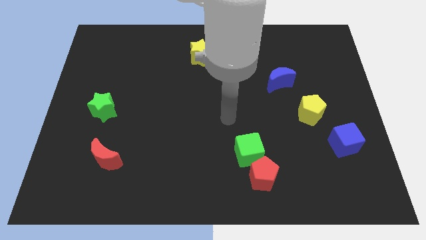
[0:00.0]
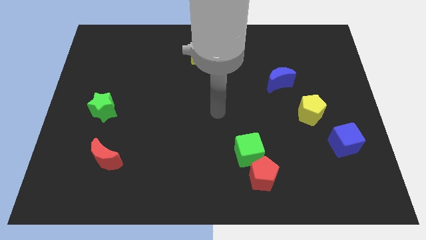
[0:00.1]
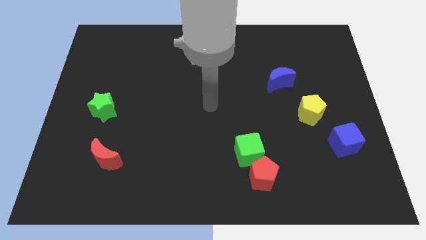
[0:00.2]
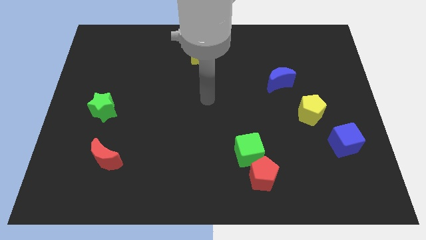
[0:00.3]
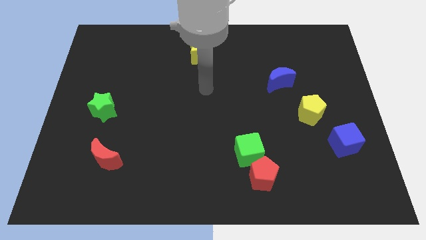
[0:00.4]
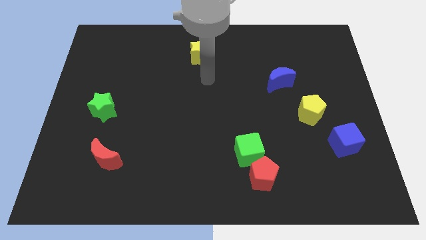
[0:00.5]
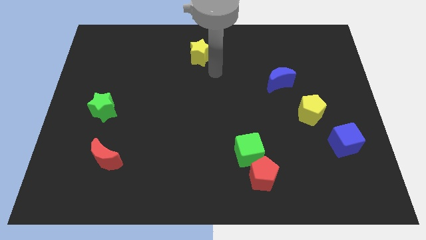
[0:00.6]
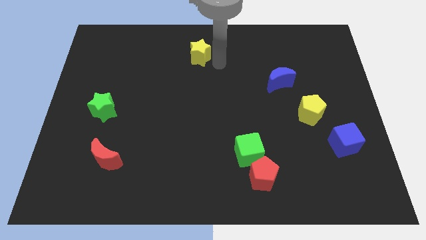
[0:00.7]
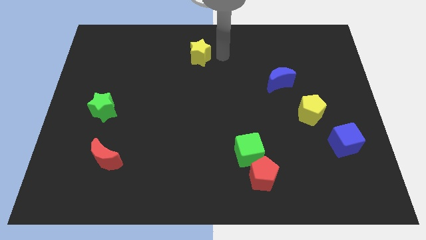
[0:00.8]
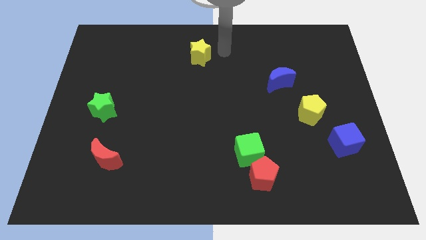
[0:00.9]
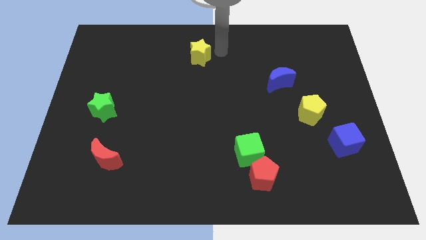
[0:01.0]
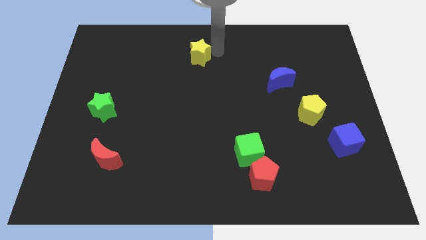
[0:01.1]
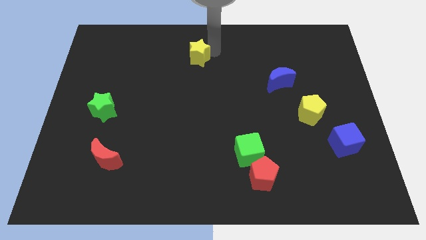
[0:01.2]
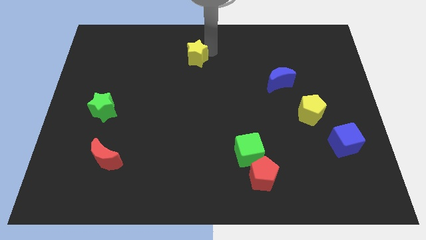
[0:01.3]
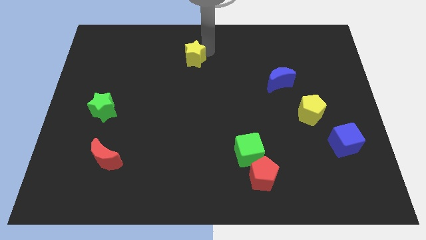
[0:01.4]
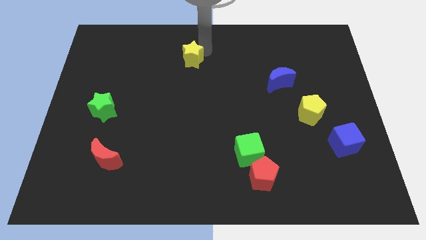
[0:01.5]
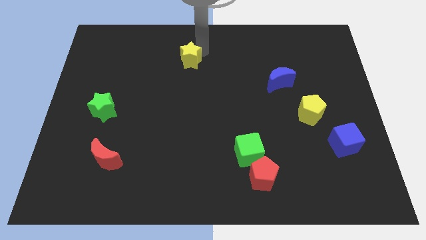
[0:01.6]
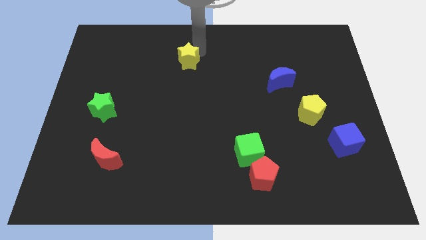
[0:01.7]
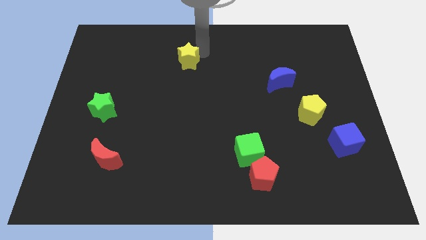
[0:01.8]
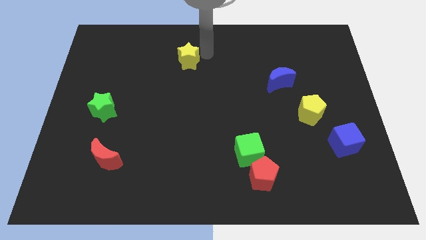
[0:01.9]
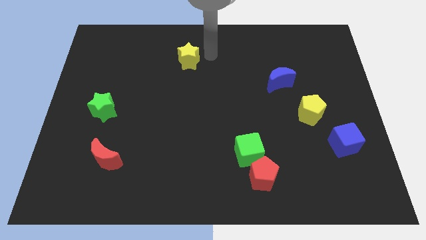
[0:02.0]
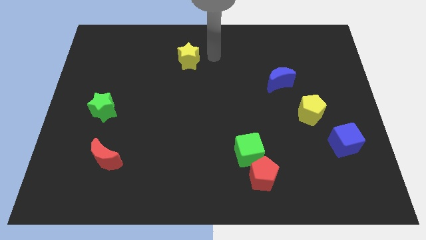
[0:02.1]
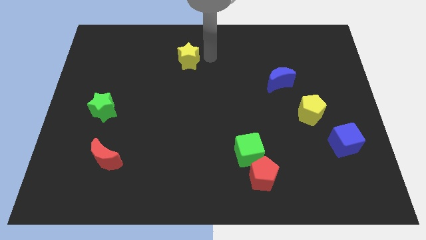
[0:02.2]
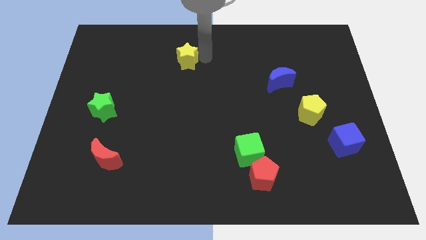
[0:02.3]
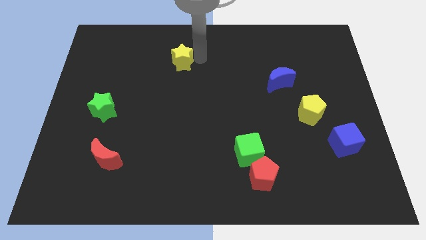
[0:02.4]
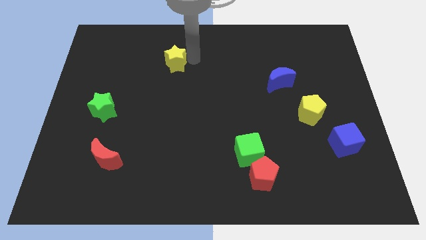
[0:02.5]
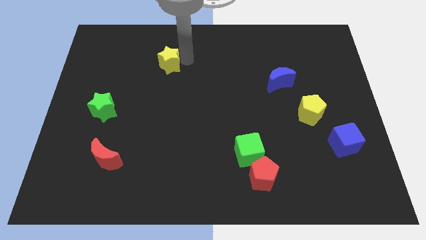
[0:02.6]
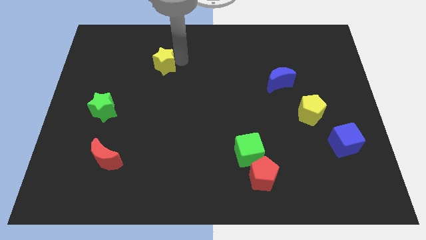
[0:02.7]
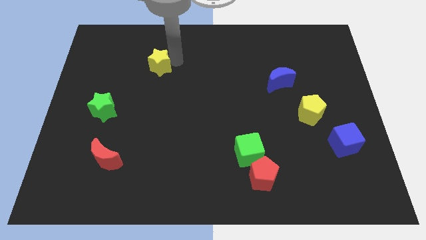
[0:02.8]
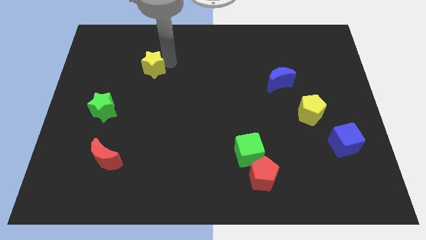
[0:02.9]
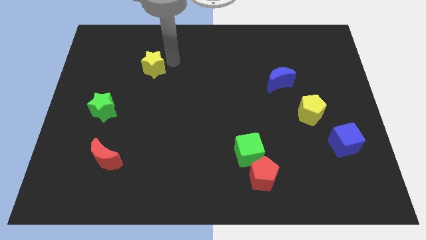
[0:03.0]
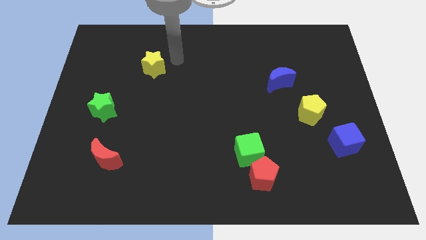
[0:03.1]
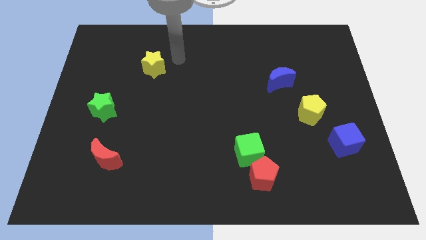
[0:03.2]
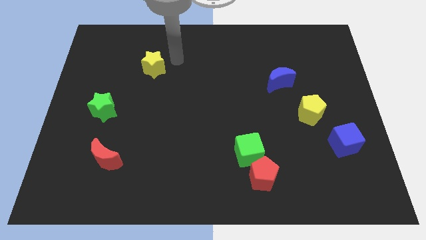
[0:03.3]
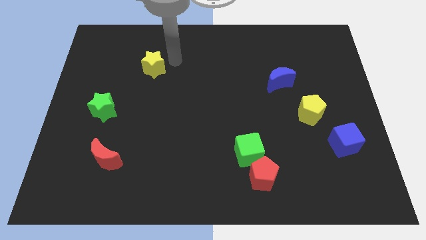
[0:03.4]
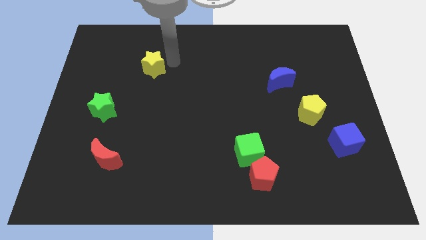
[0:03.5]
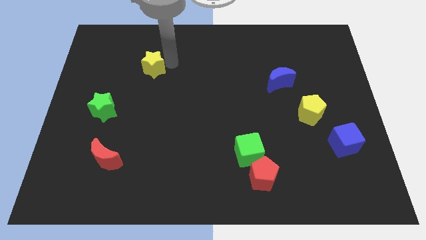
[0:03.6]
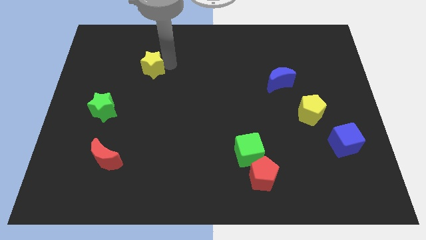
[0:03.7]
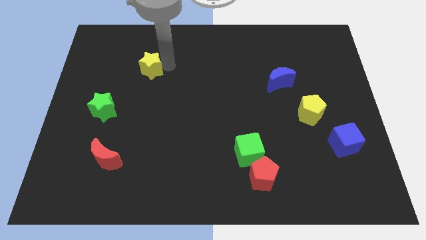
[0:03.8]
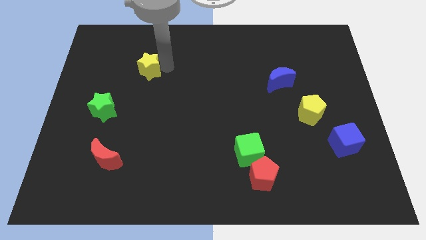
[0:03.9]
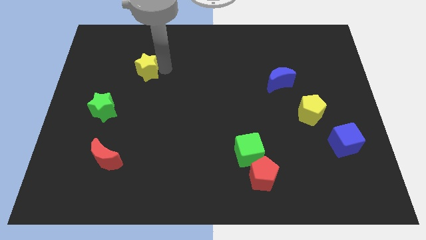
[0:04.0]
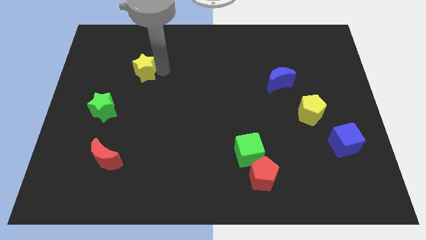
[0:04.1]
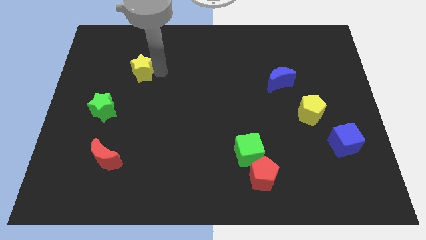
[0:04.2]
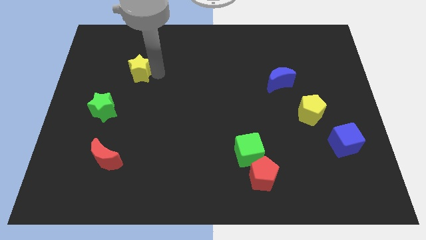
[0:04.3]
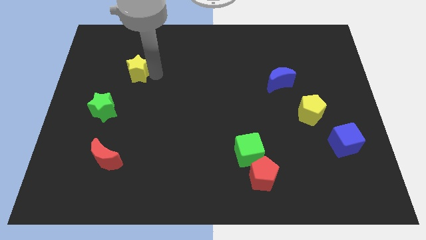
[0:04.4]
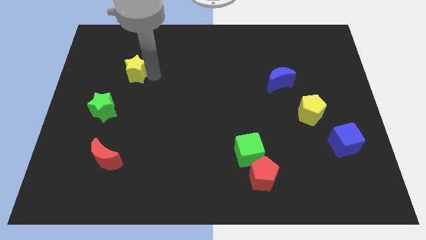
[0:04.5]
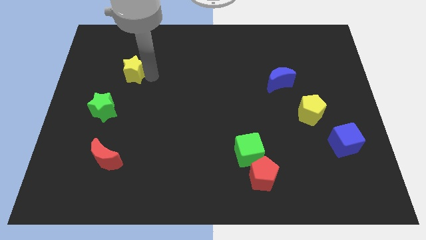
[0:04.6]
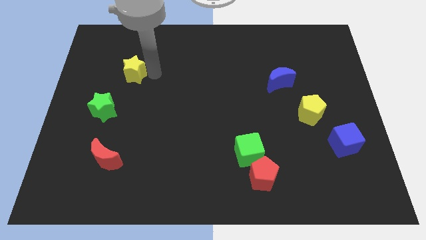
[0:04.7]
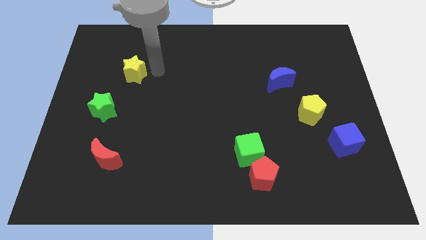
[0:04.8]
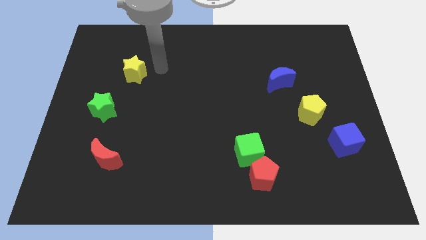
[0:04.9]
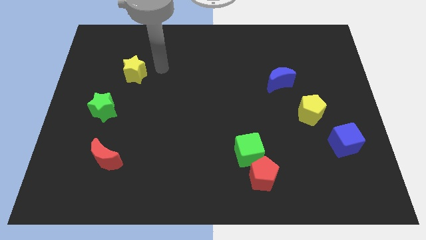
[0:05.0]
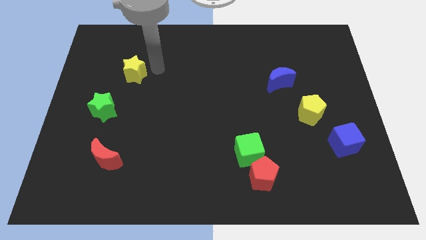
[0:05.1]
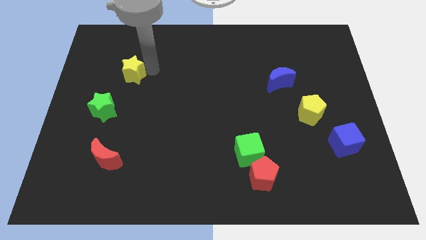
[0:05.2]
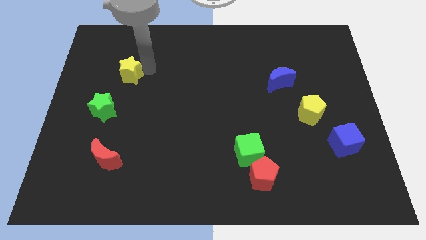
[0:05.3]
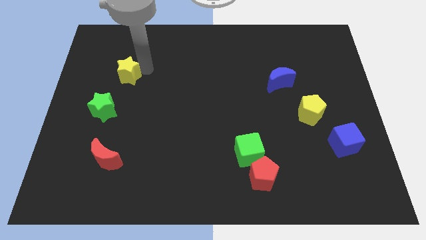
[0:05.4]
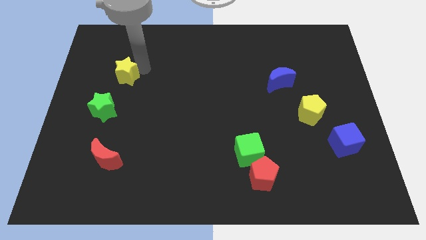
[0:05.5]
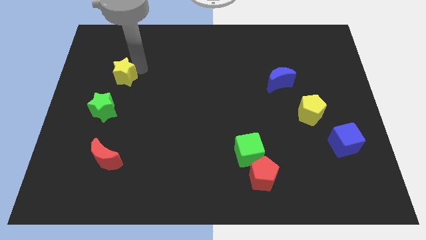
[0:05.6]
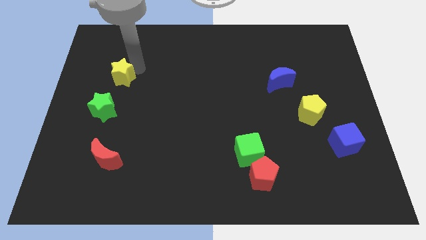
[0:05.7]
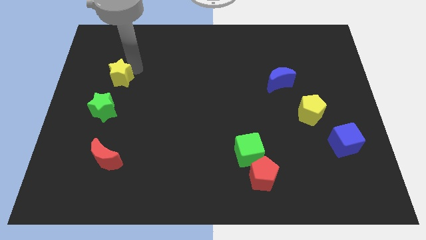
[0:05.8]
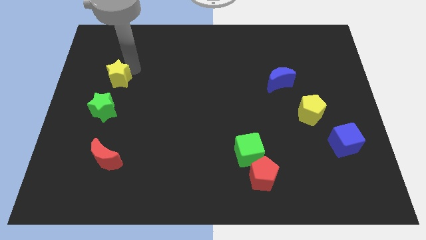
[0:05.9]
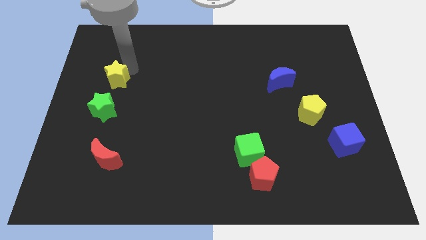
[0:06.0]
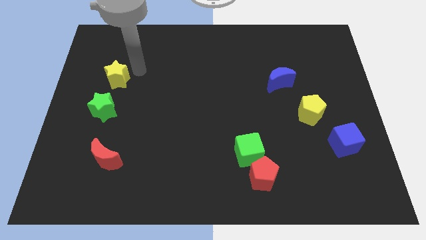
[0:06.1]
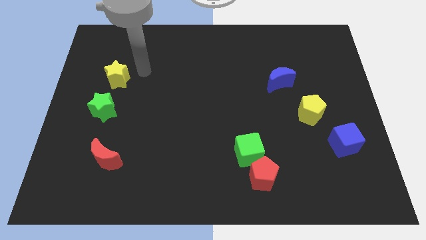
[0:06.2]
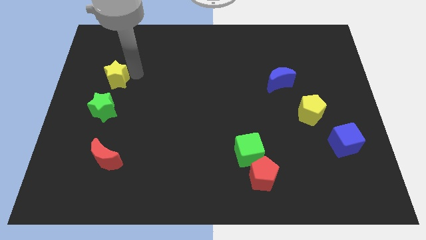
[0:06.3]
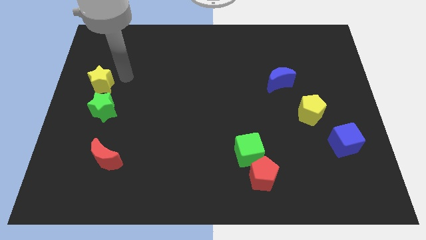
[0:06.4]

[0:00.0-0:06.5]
move the yellow star to the center left

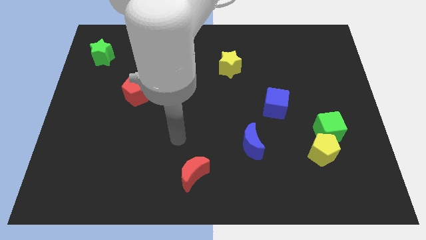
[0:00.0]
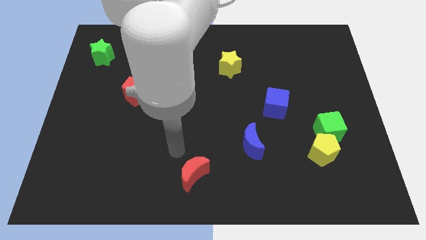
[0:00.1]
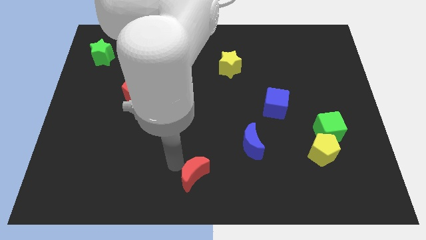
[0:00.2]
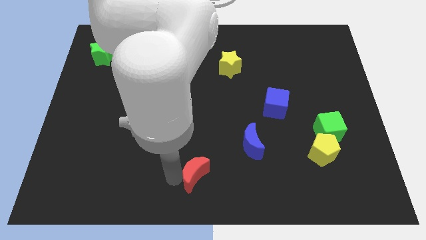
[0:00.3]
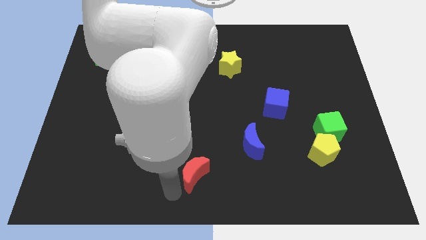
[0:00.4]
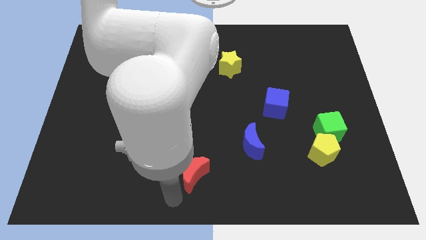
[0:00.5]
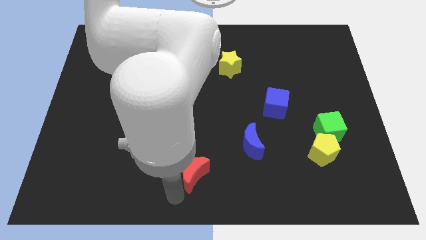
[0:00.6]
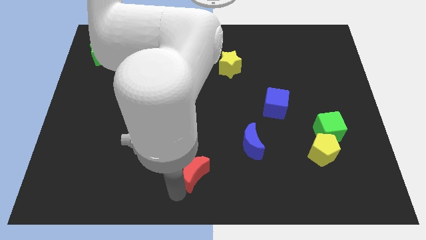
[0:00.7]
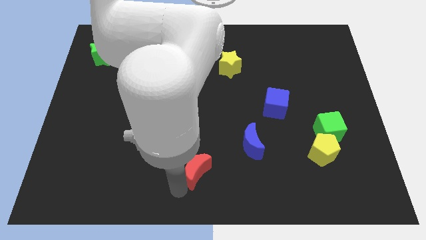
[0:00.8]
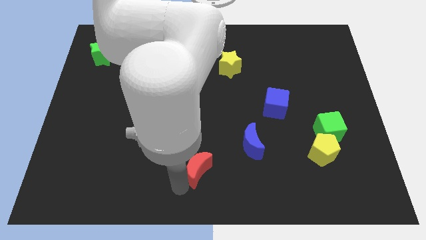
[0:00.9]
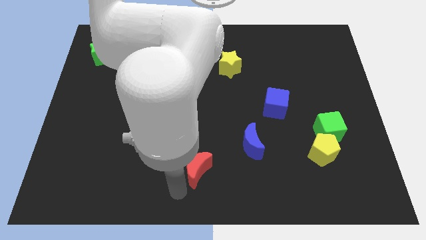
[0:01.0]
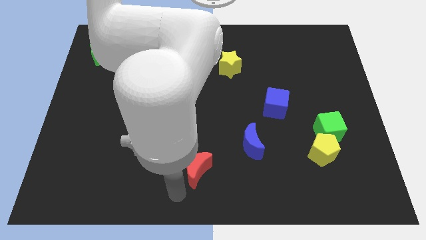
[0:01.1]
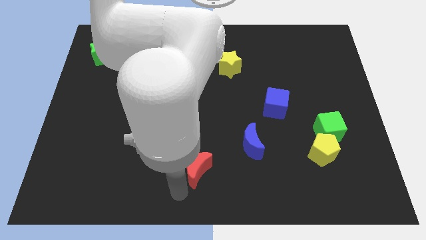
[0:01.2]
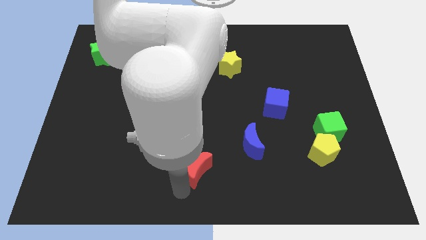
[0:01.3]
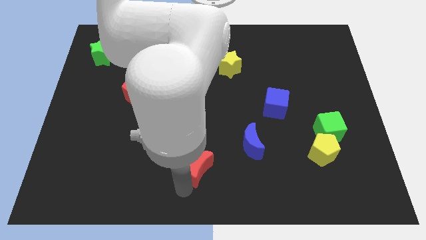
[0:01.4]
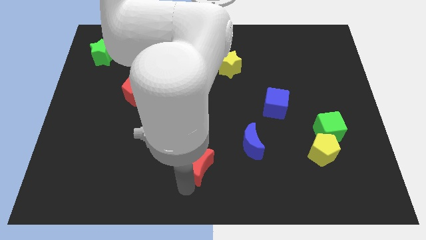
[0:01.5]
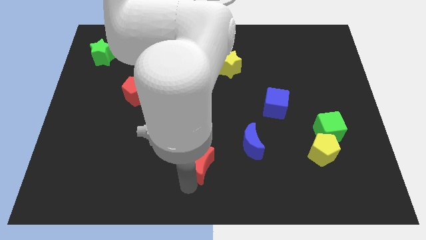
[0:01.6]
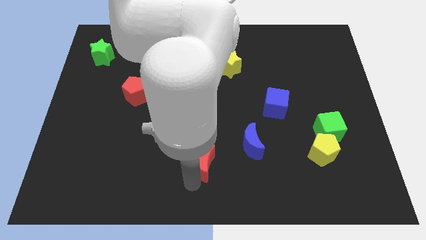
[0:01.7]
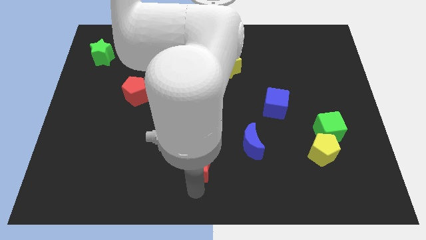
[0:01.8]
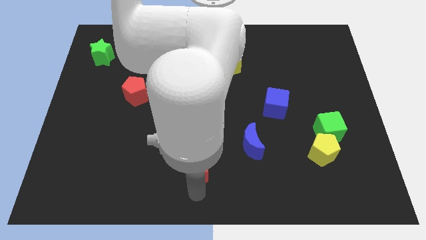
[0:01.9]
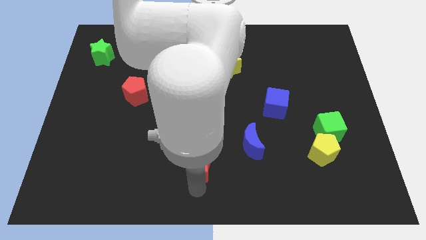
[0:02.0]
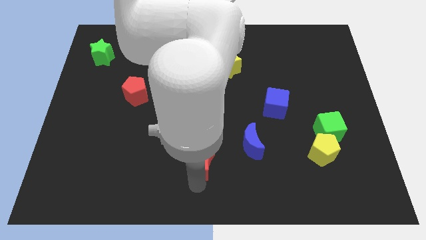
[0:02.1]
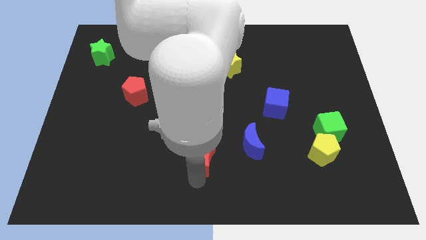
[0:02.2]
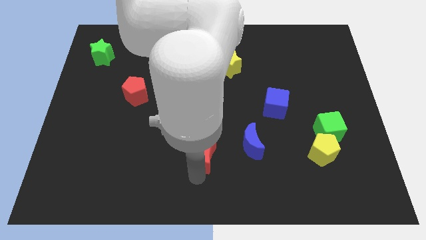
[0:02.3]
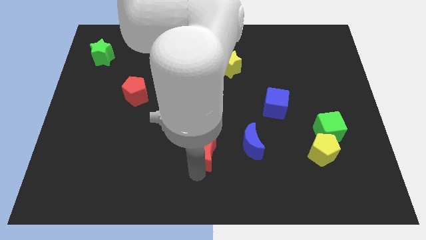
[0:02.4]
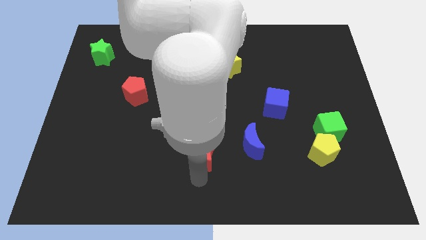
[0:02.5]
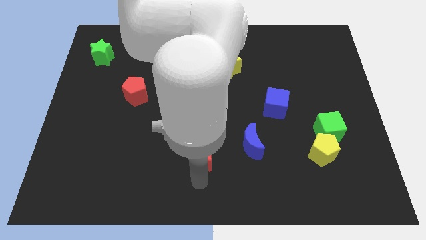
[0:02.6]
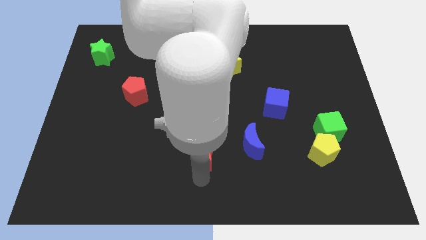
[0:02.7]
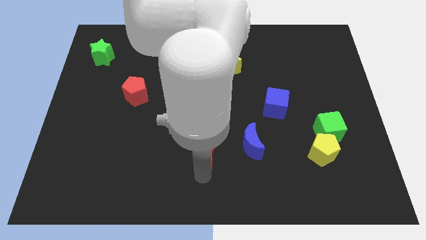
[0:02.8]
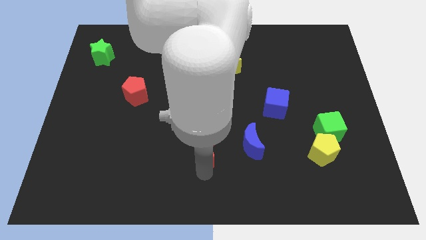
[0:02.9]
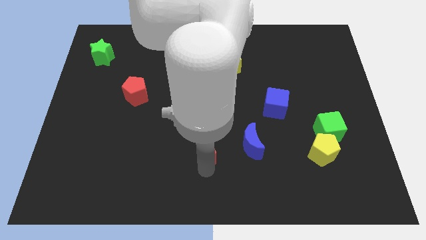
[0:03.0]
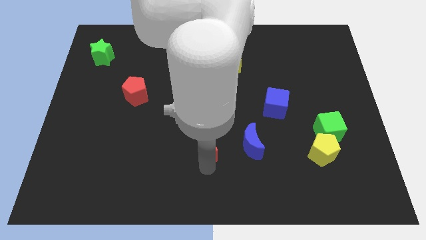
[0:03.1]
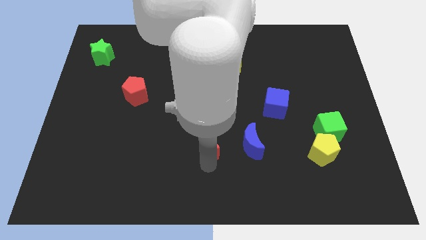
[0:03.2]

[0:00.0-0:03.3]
put the red moon to the center
